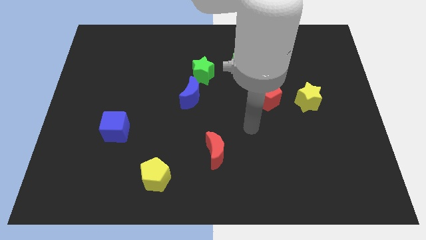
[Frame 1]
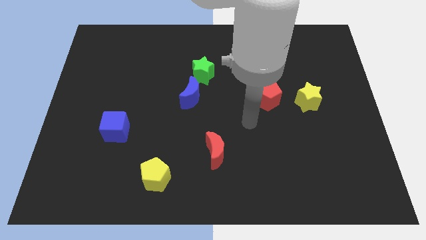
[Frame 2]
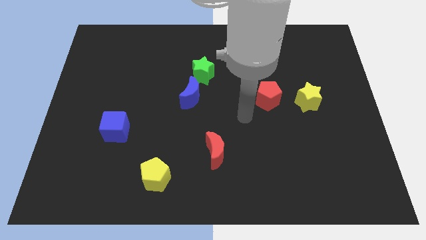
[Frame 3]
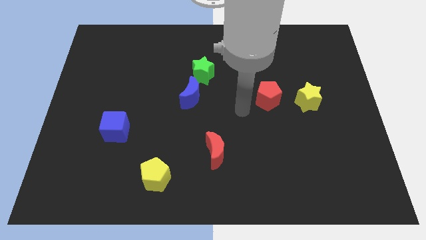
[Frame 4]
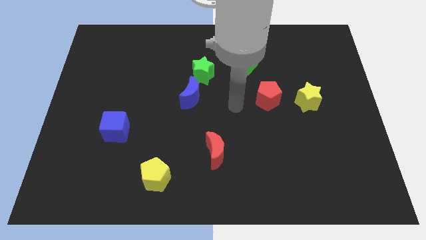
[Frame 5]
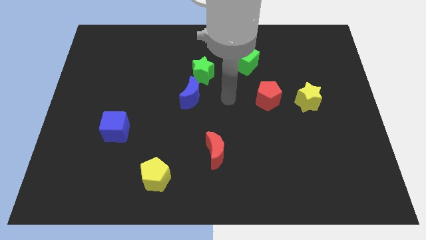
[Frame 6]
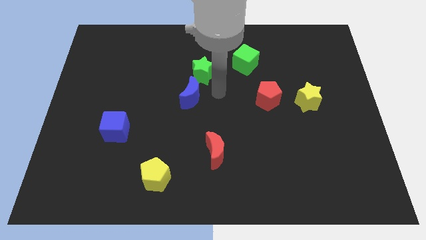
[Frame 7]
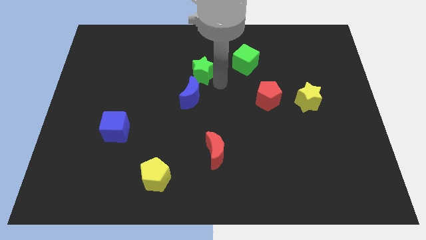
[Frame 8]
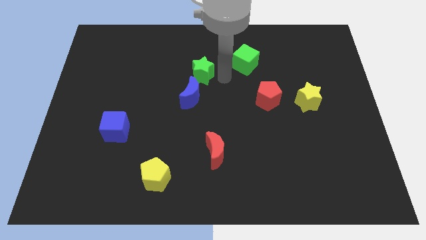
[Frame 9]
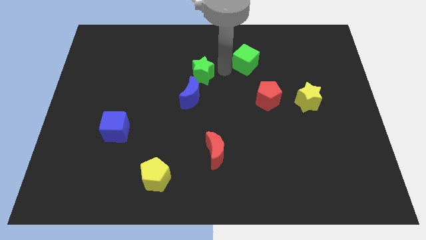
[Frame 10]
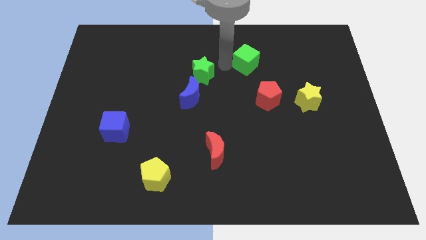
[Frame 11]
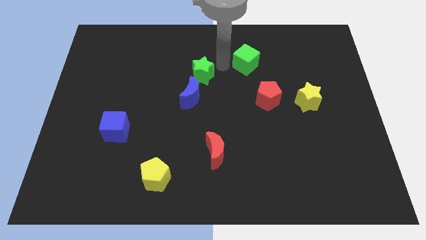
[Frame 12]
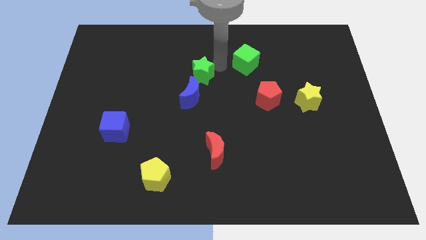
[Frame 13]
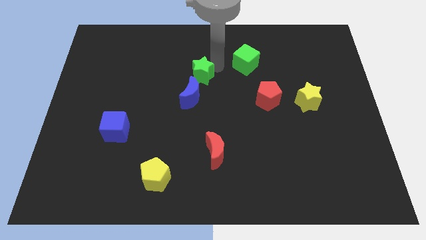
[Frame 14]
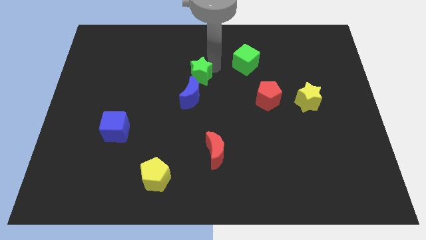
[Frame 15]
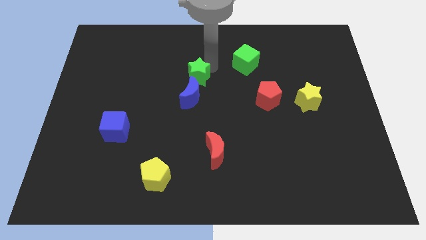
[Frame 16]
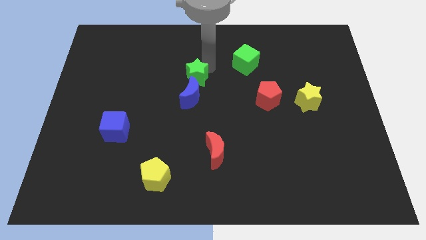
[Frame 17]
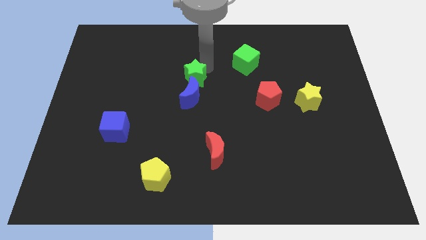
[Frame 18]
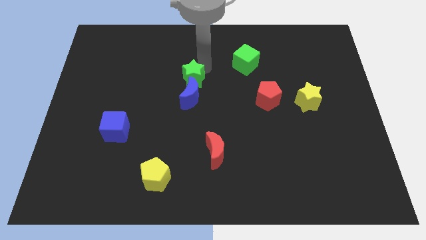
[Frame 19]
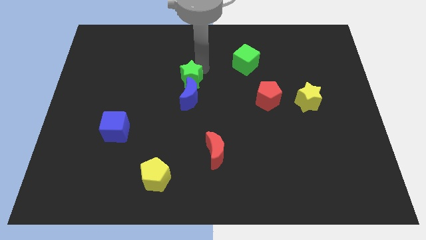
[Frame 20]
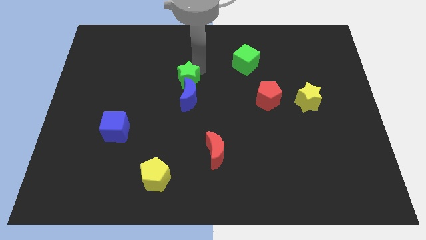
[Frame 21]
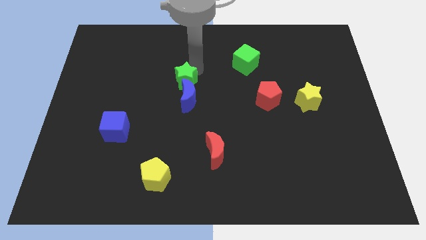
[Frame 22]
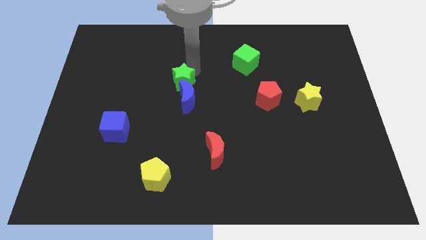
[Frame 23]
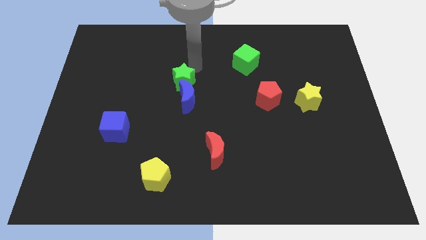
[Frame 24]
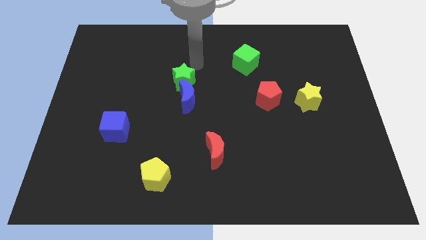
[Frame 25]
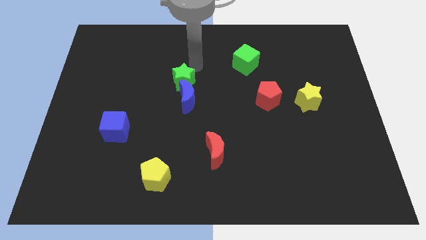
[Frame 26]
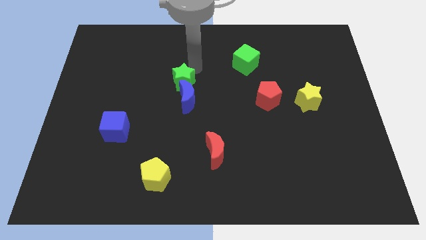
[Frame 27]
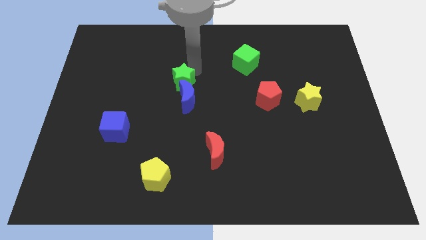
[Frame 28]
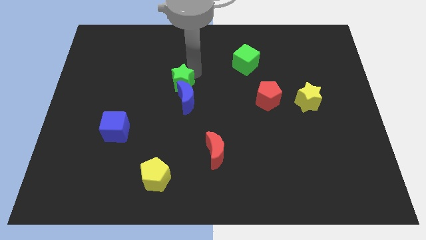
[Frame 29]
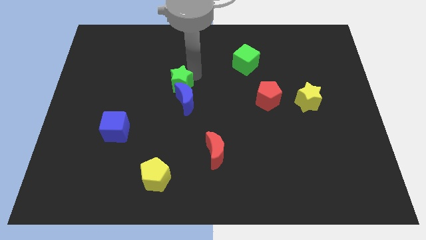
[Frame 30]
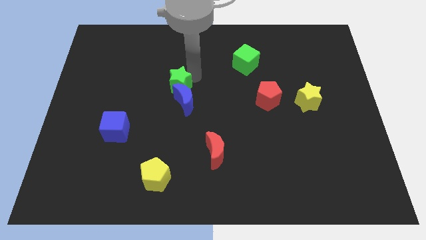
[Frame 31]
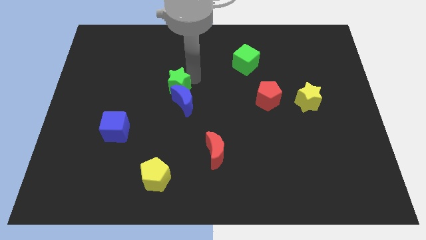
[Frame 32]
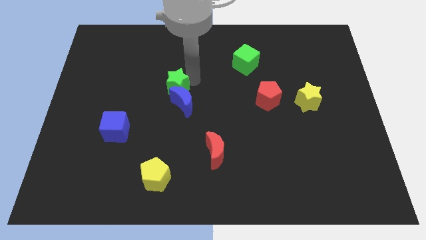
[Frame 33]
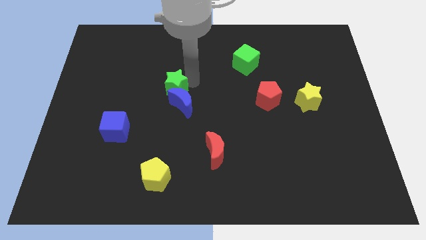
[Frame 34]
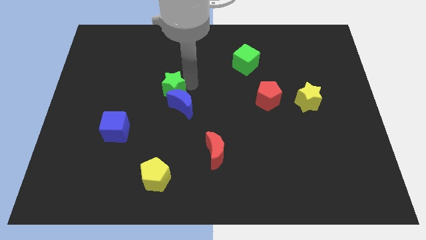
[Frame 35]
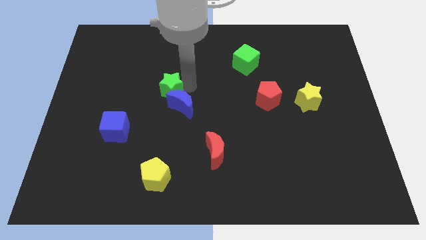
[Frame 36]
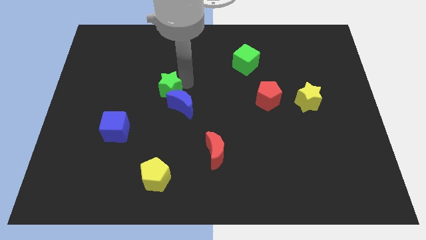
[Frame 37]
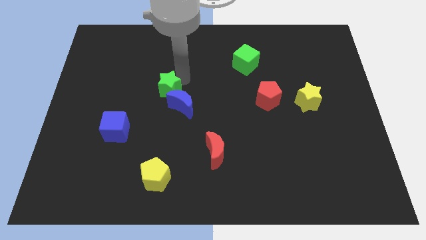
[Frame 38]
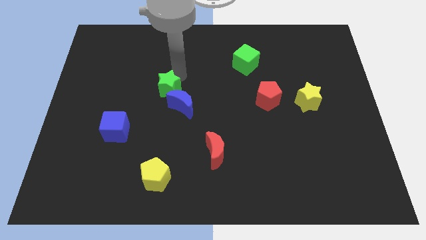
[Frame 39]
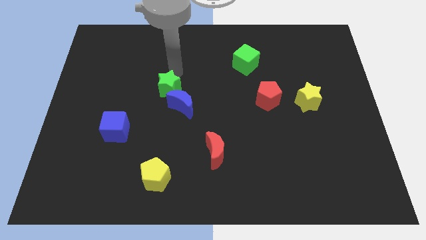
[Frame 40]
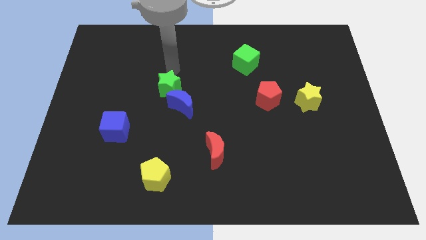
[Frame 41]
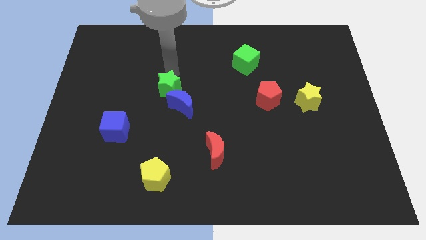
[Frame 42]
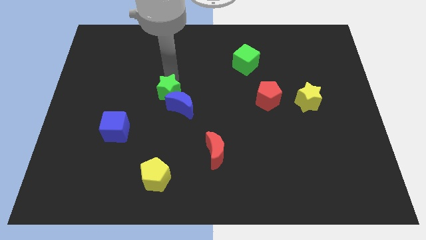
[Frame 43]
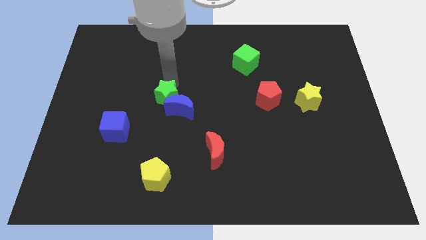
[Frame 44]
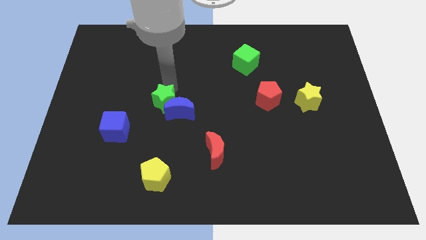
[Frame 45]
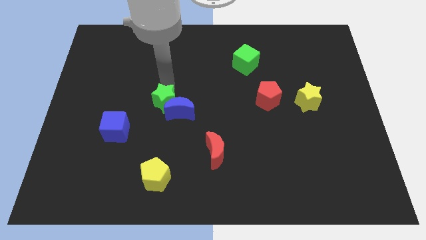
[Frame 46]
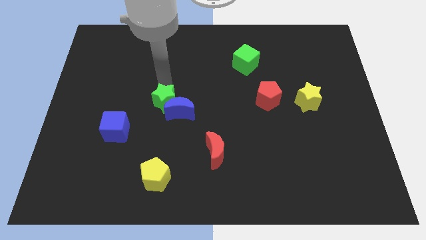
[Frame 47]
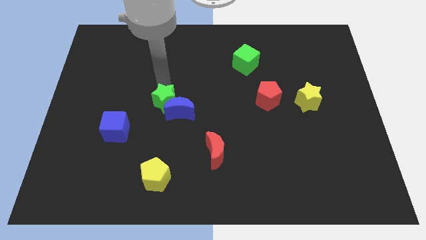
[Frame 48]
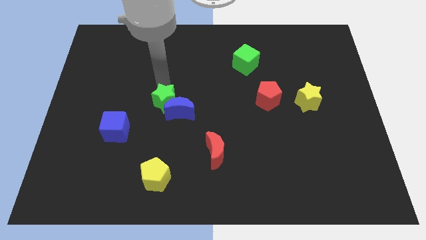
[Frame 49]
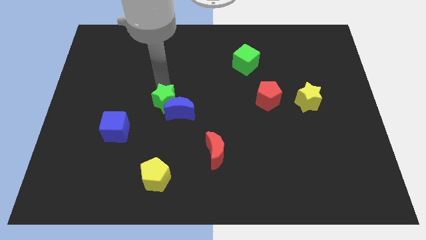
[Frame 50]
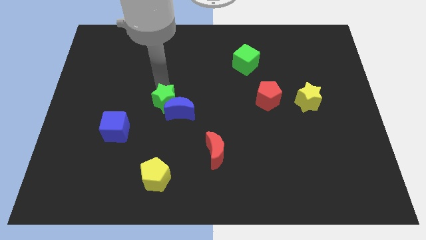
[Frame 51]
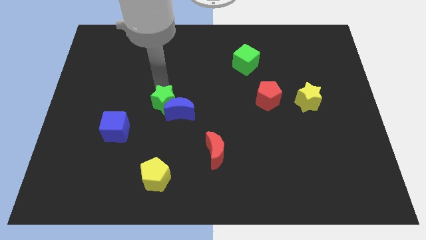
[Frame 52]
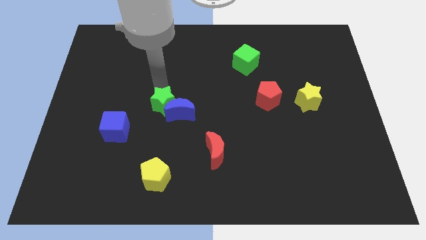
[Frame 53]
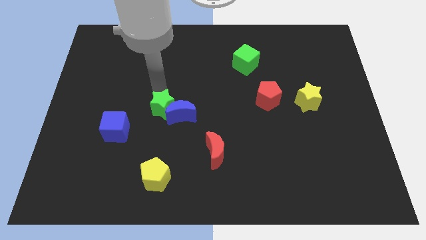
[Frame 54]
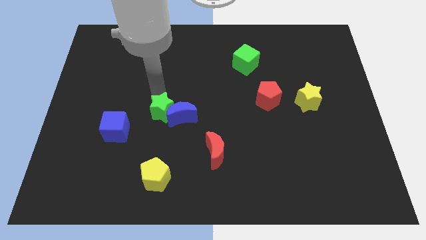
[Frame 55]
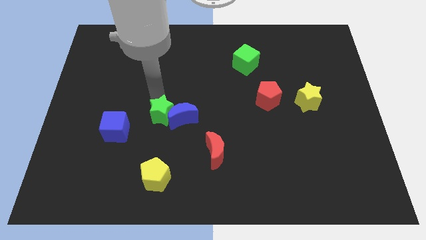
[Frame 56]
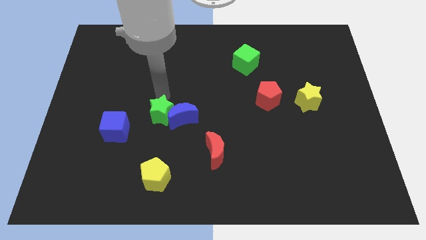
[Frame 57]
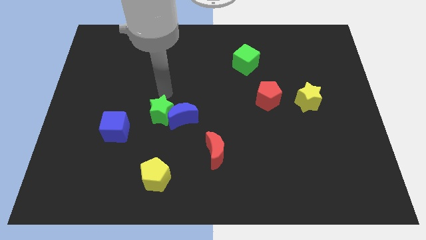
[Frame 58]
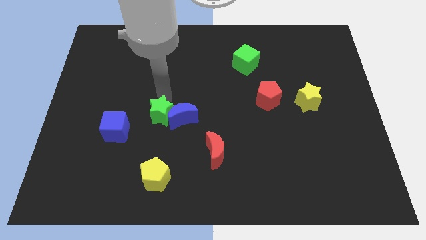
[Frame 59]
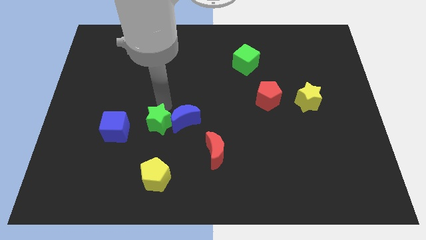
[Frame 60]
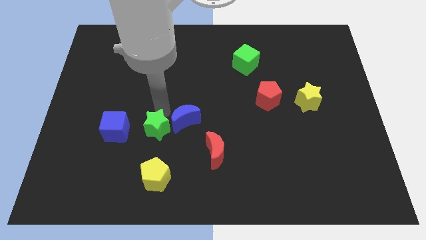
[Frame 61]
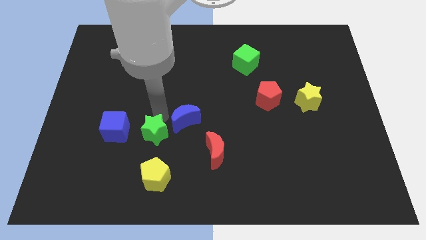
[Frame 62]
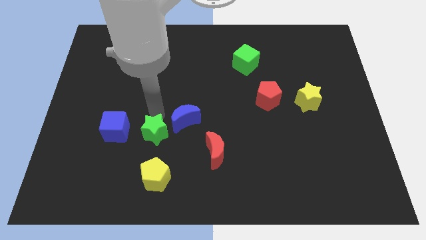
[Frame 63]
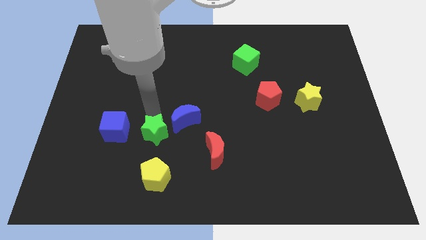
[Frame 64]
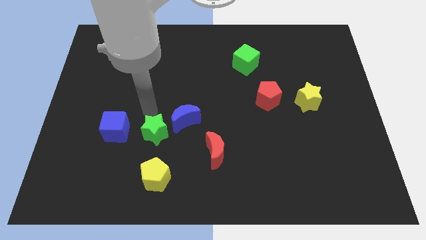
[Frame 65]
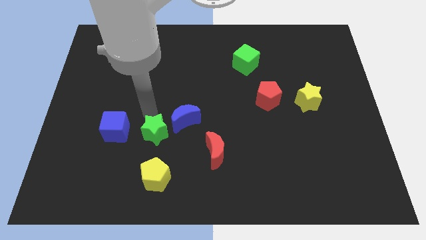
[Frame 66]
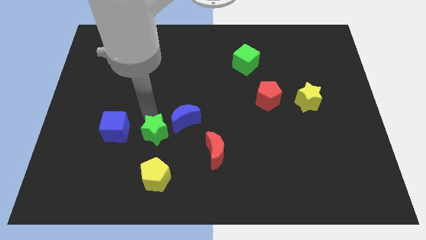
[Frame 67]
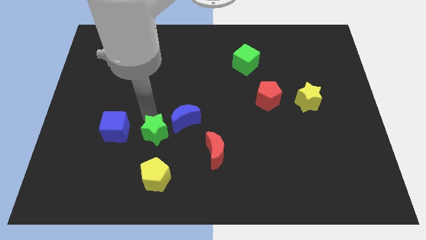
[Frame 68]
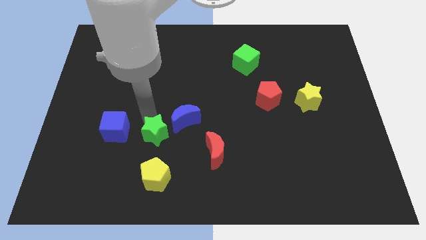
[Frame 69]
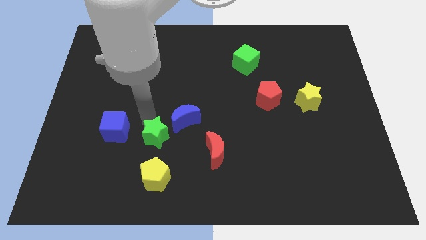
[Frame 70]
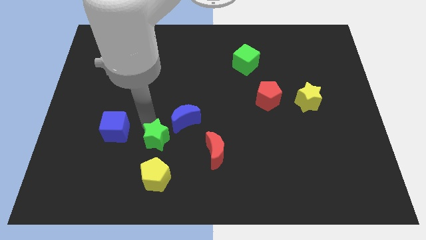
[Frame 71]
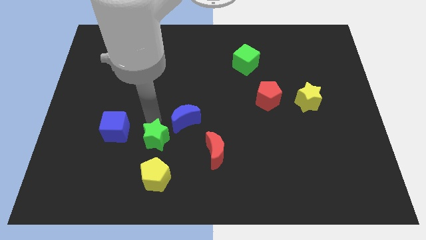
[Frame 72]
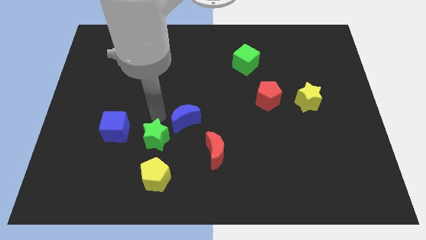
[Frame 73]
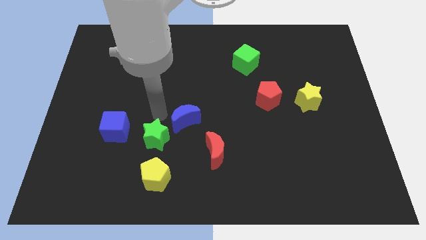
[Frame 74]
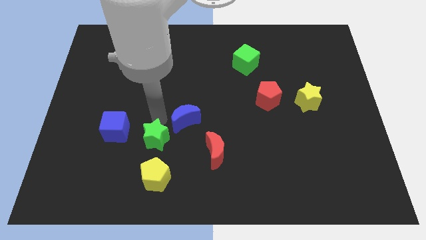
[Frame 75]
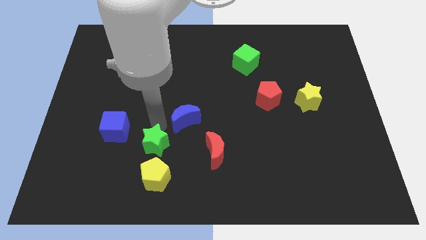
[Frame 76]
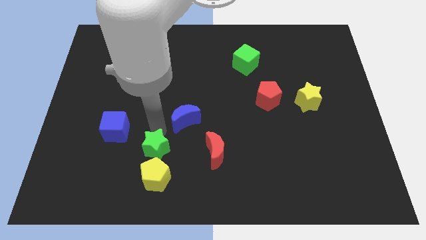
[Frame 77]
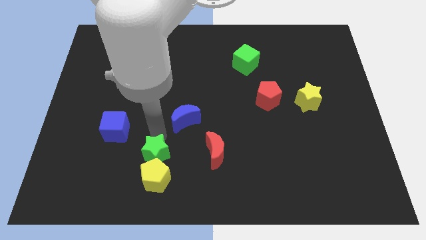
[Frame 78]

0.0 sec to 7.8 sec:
slide the green star close to the yellow pentagon
